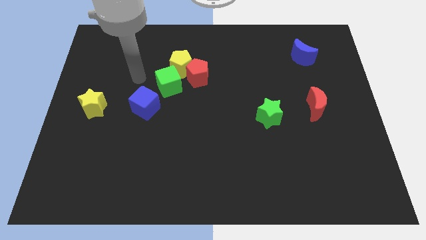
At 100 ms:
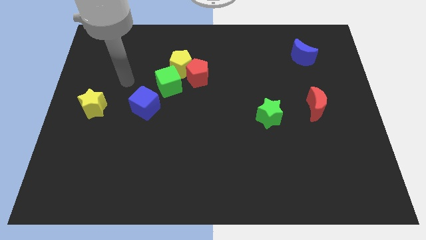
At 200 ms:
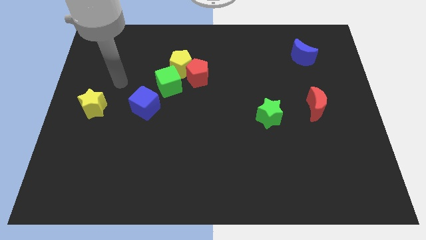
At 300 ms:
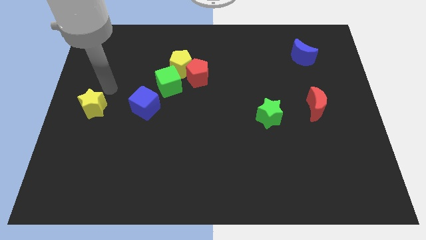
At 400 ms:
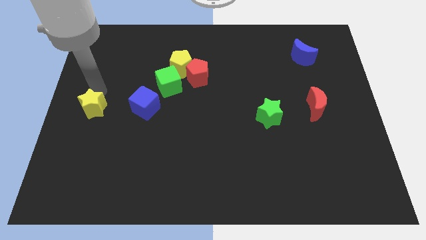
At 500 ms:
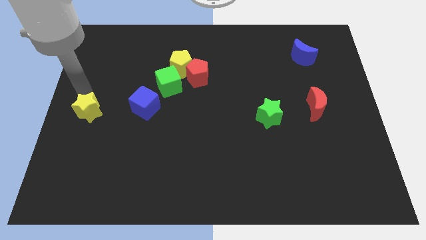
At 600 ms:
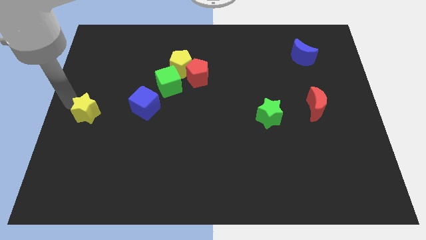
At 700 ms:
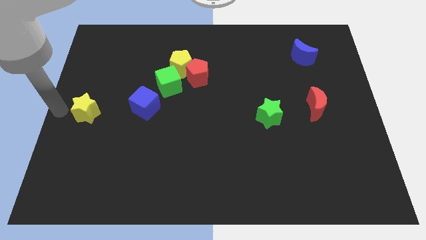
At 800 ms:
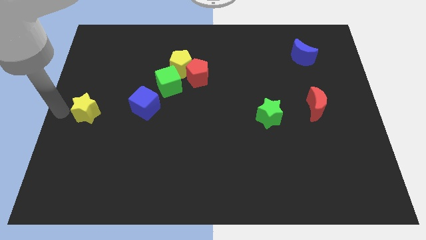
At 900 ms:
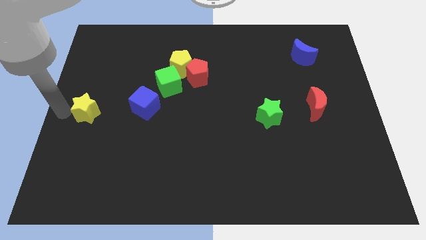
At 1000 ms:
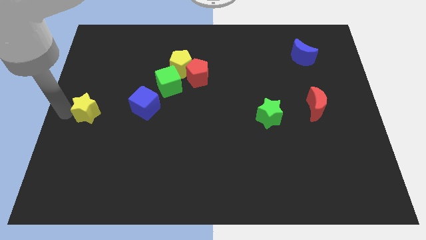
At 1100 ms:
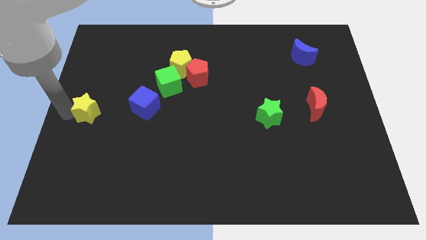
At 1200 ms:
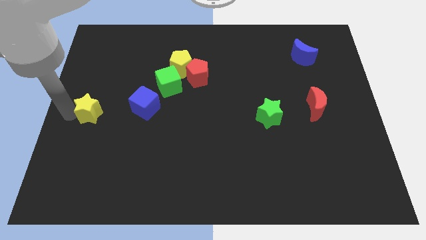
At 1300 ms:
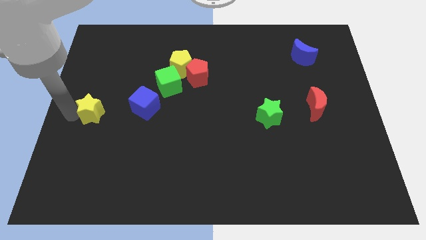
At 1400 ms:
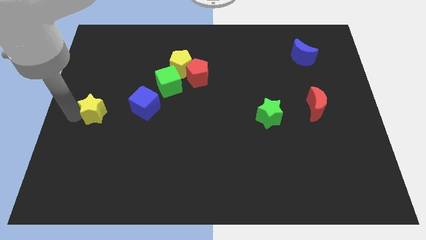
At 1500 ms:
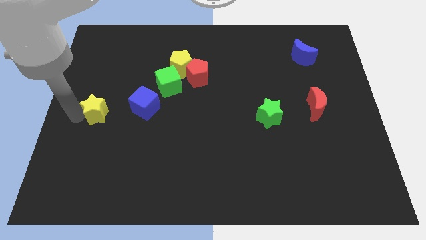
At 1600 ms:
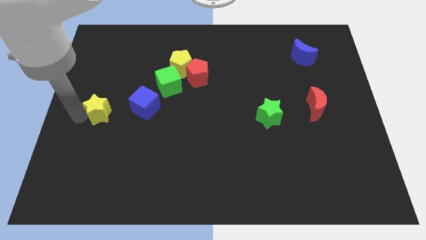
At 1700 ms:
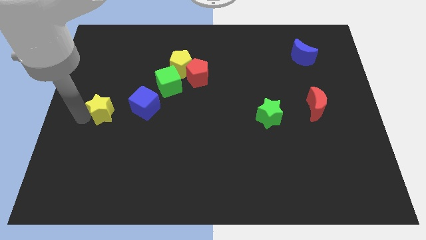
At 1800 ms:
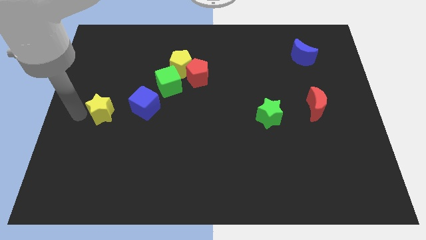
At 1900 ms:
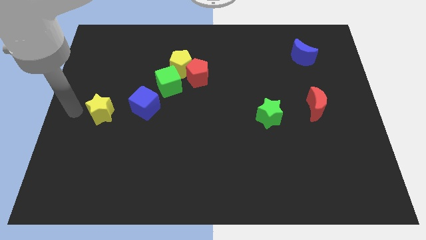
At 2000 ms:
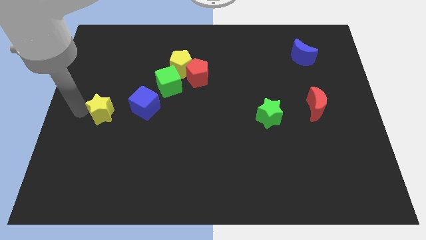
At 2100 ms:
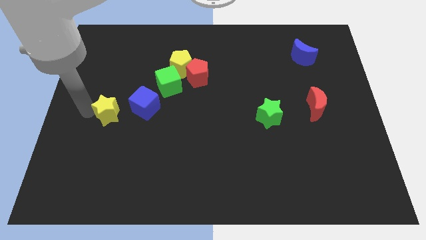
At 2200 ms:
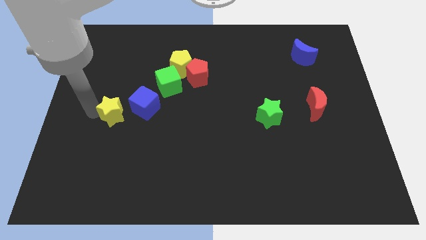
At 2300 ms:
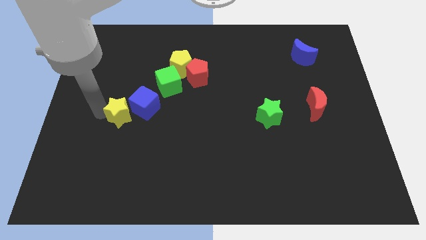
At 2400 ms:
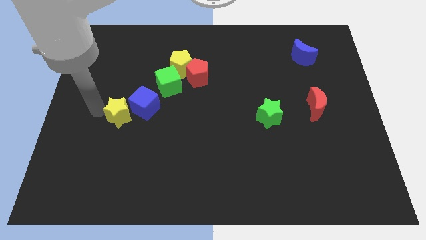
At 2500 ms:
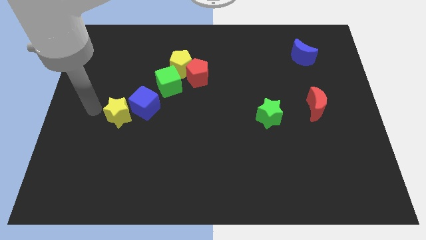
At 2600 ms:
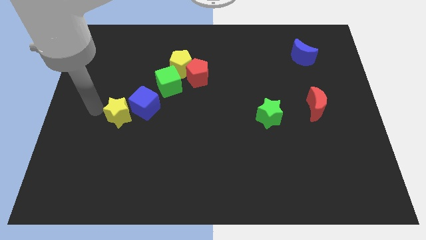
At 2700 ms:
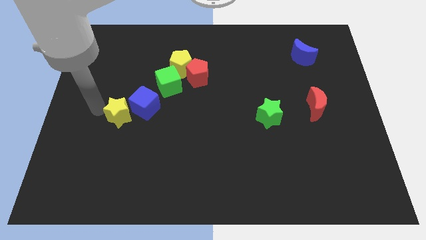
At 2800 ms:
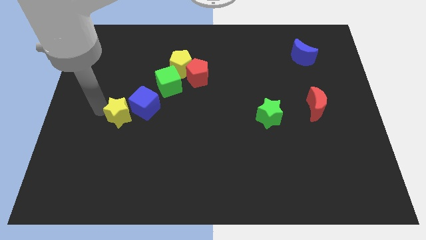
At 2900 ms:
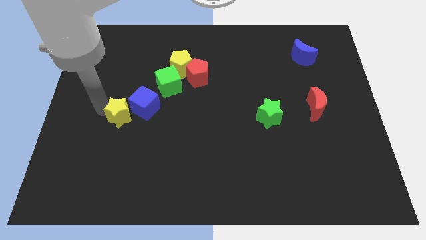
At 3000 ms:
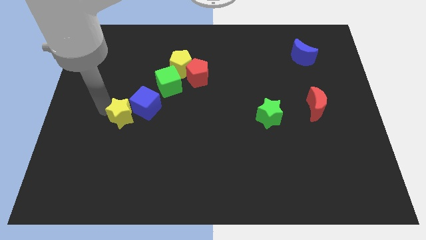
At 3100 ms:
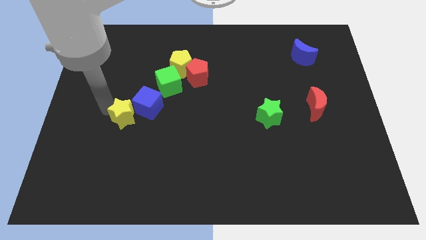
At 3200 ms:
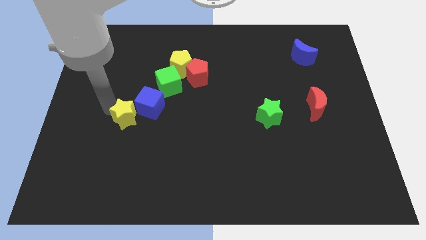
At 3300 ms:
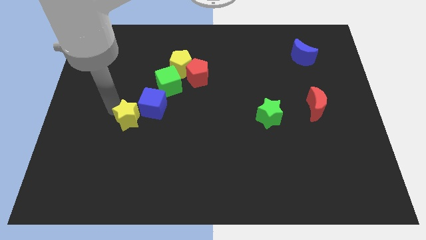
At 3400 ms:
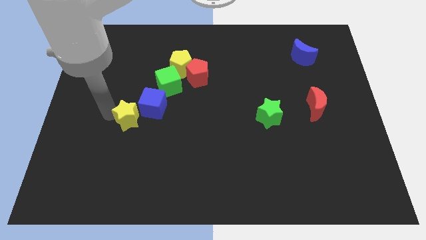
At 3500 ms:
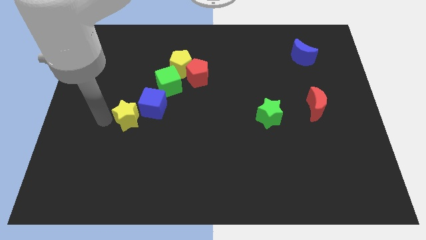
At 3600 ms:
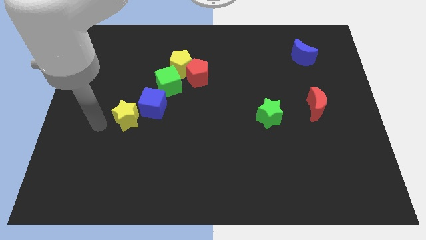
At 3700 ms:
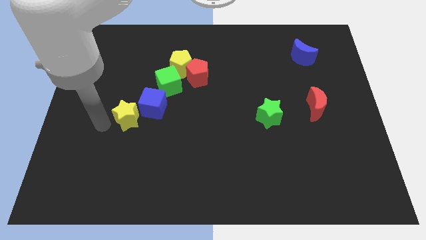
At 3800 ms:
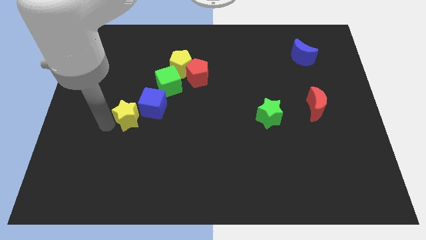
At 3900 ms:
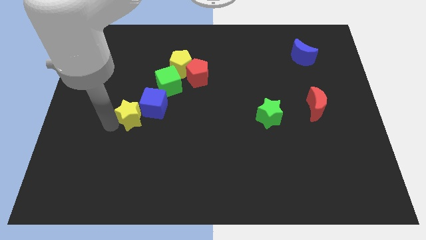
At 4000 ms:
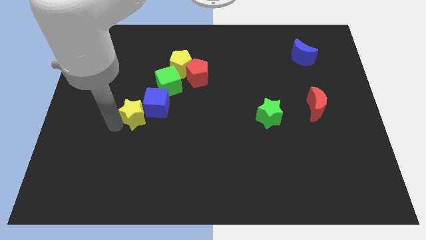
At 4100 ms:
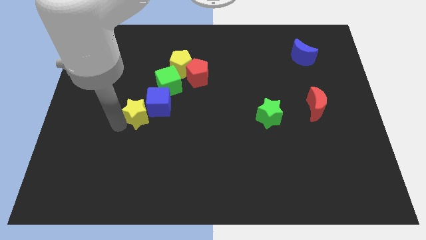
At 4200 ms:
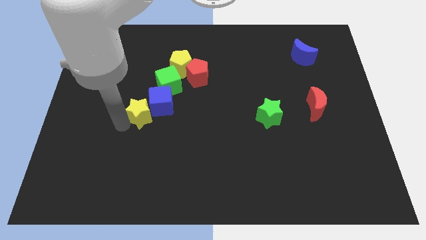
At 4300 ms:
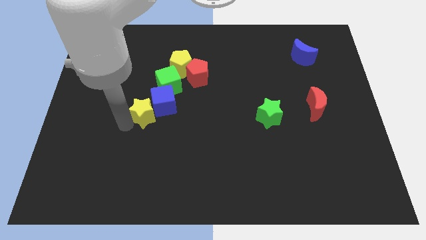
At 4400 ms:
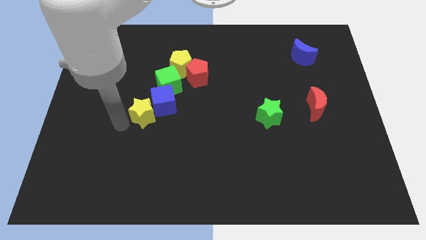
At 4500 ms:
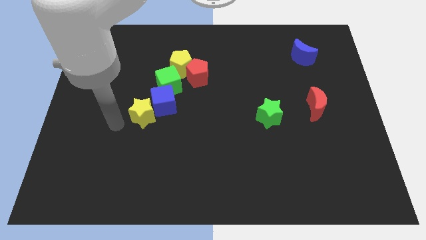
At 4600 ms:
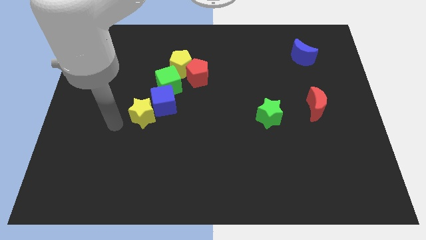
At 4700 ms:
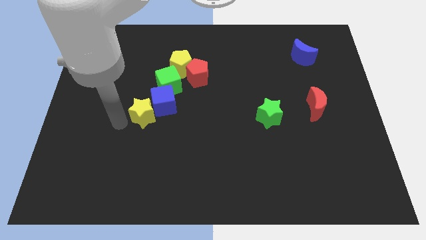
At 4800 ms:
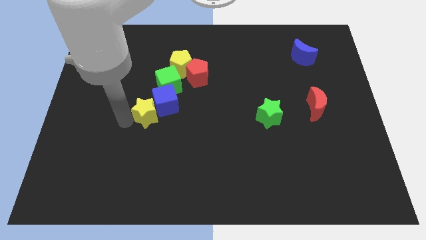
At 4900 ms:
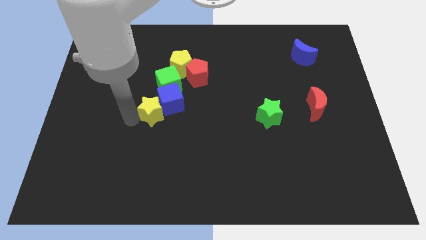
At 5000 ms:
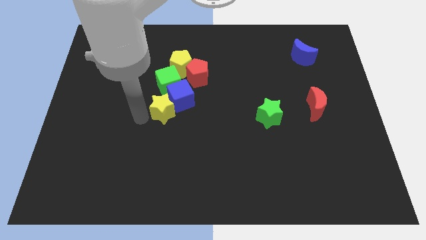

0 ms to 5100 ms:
move the yellow star to the middle

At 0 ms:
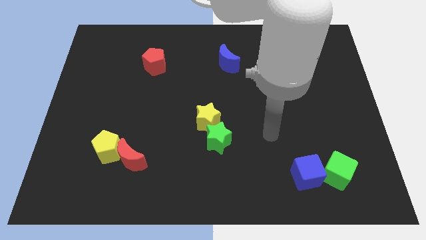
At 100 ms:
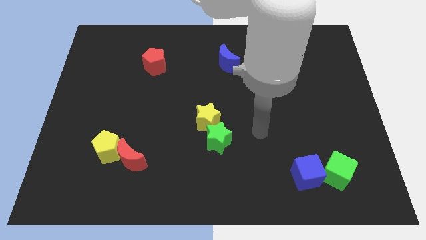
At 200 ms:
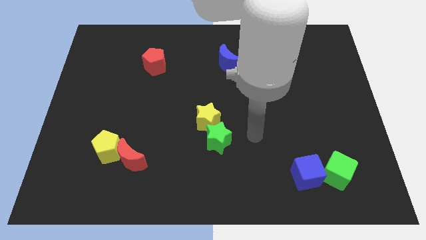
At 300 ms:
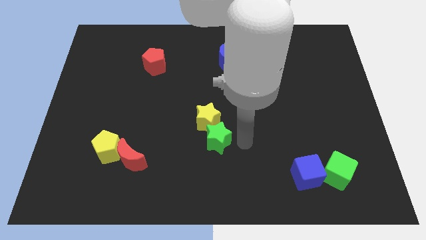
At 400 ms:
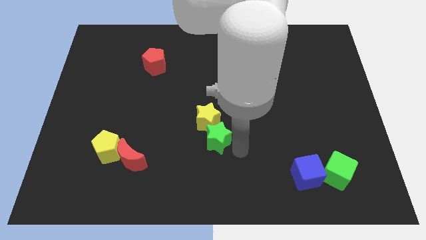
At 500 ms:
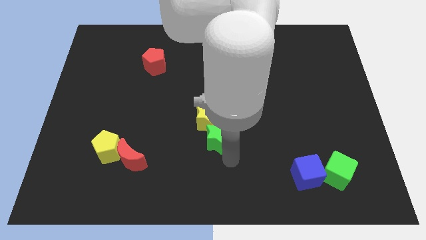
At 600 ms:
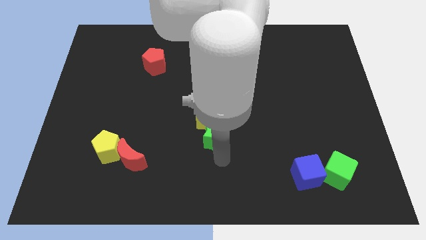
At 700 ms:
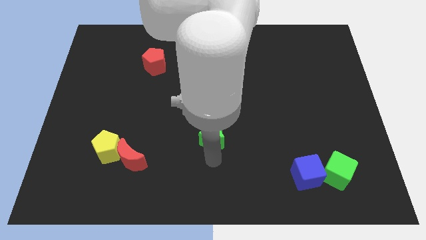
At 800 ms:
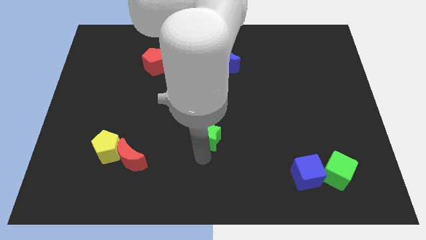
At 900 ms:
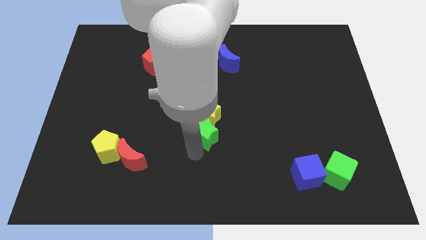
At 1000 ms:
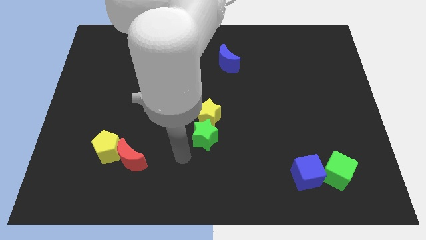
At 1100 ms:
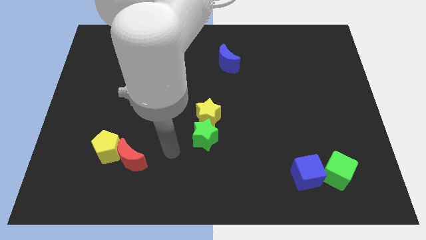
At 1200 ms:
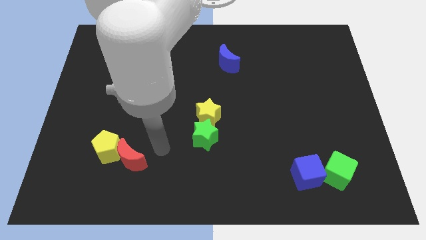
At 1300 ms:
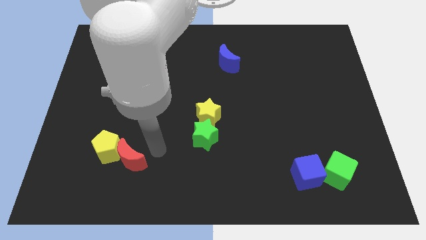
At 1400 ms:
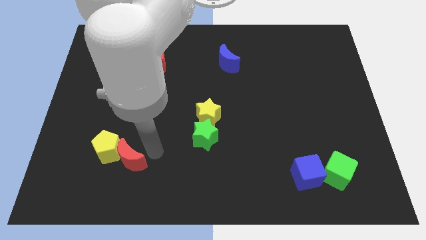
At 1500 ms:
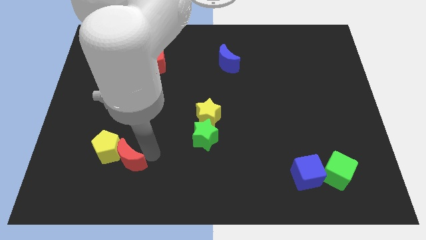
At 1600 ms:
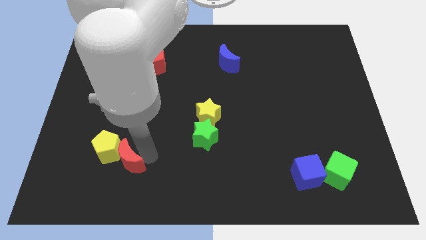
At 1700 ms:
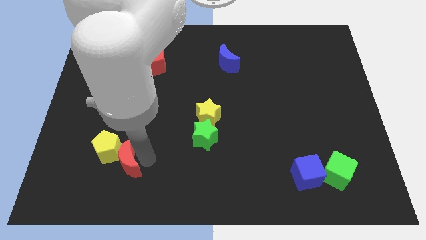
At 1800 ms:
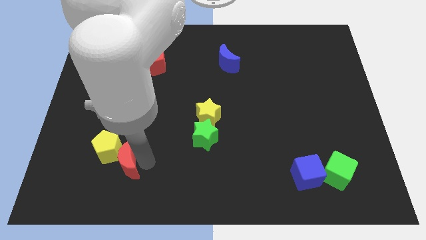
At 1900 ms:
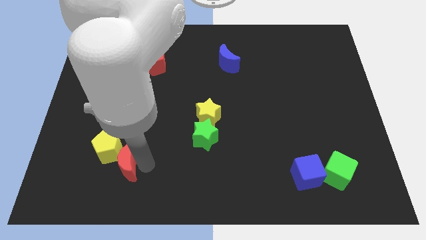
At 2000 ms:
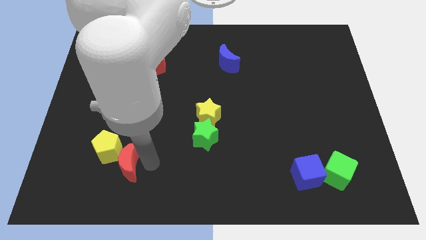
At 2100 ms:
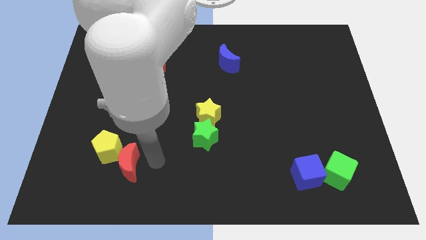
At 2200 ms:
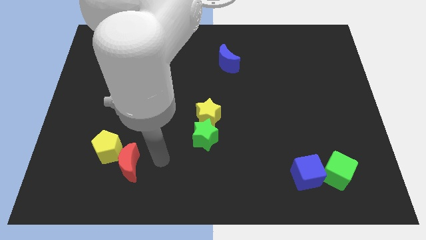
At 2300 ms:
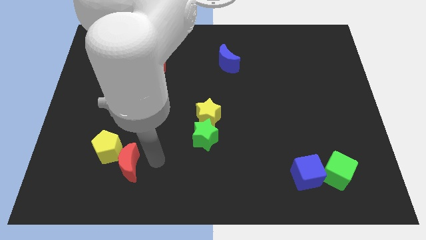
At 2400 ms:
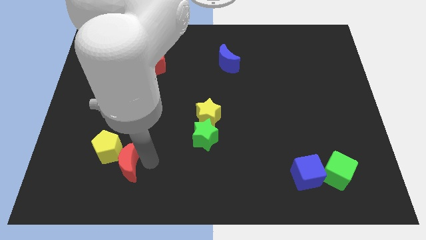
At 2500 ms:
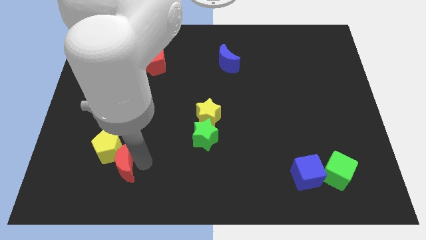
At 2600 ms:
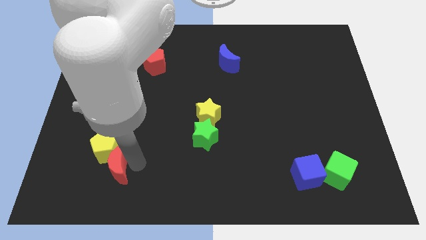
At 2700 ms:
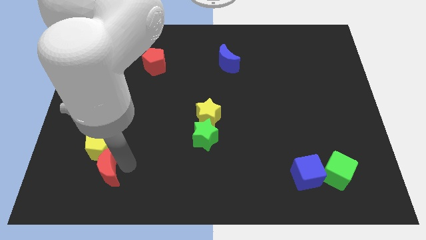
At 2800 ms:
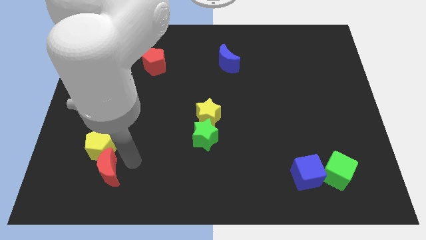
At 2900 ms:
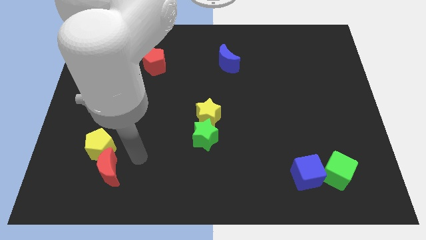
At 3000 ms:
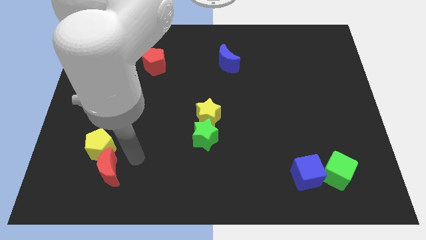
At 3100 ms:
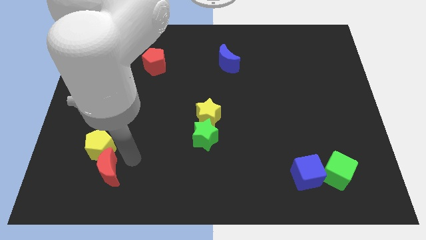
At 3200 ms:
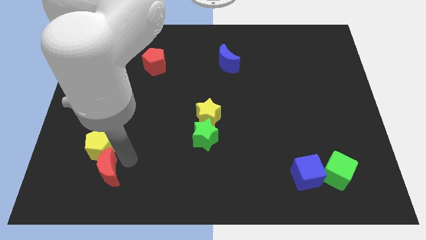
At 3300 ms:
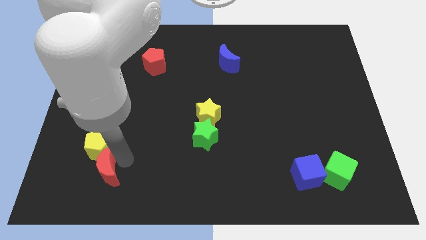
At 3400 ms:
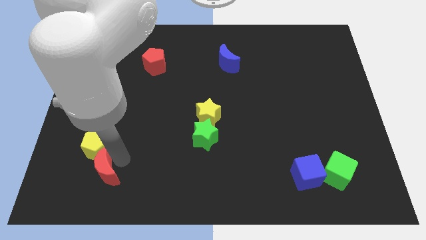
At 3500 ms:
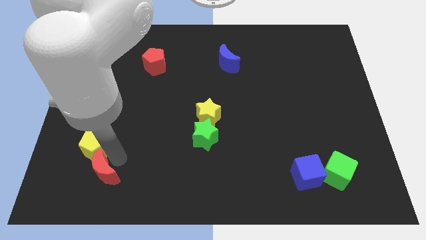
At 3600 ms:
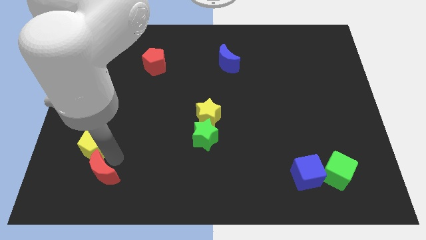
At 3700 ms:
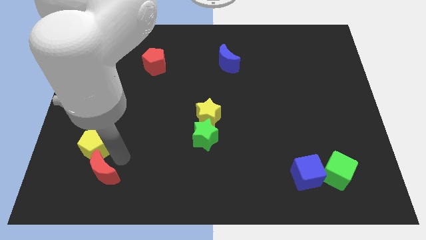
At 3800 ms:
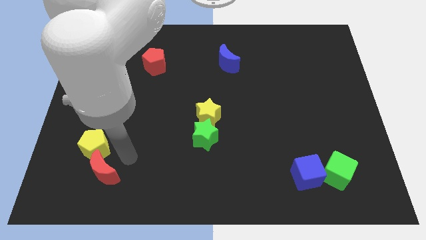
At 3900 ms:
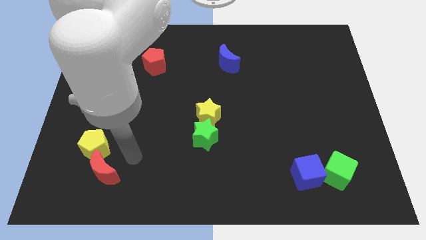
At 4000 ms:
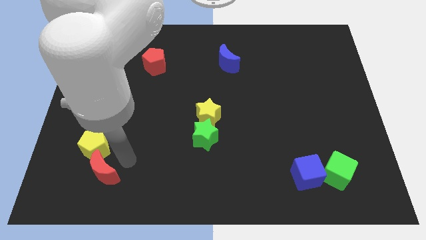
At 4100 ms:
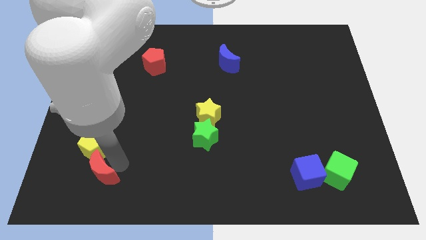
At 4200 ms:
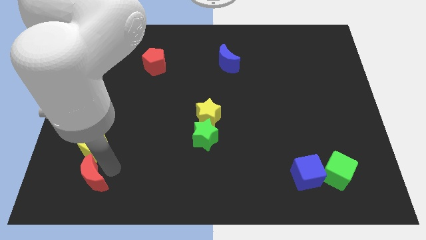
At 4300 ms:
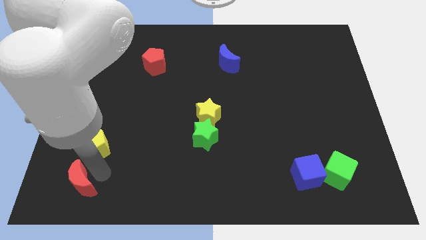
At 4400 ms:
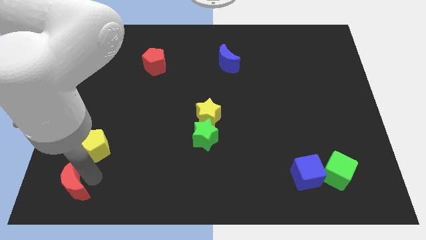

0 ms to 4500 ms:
move the red moon to the bottom left of the board
